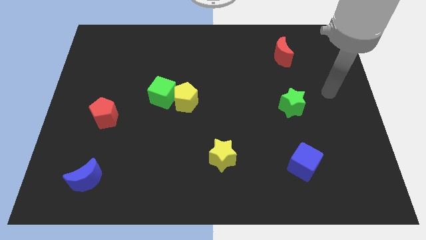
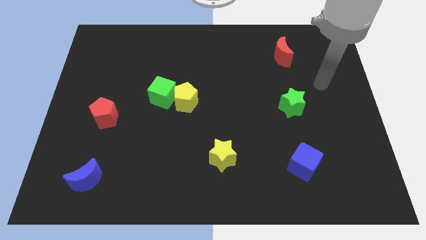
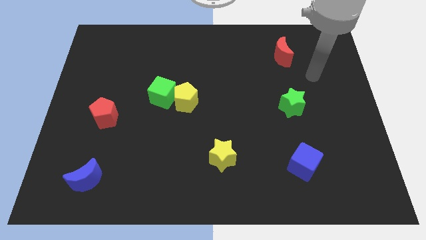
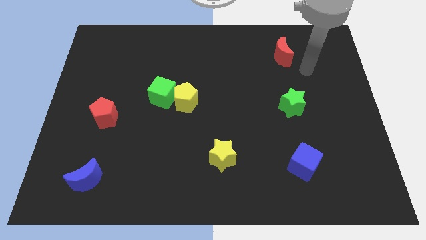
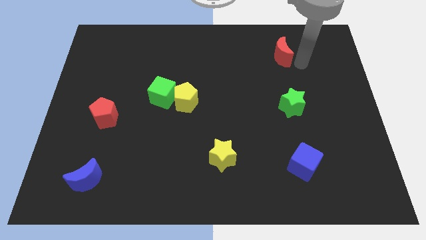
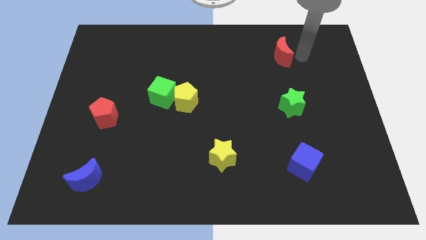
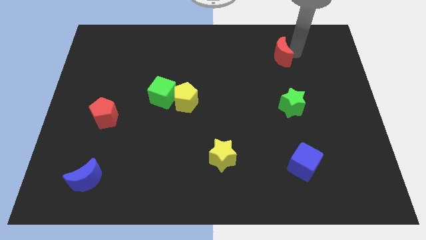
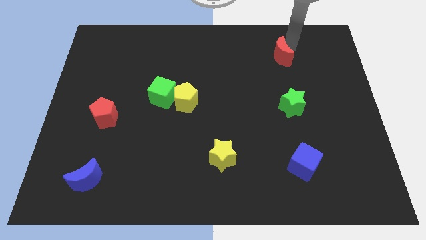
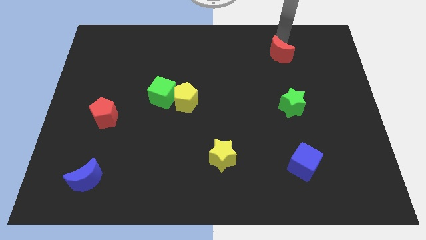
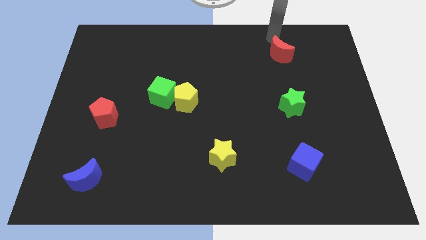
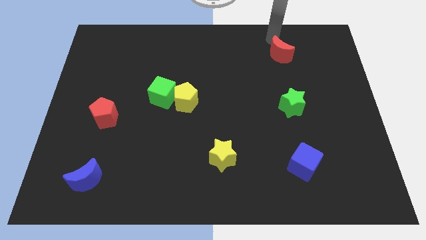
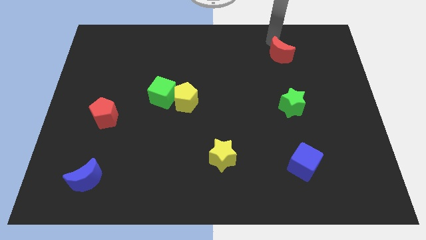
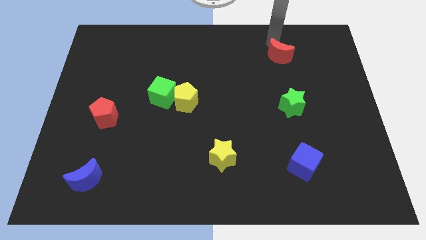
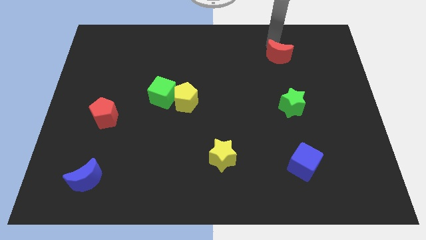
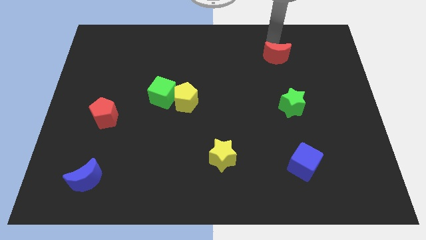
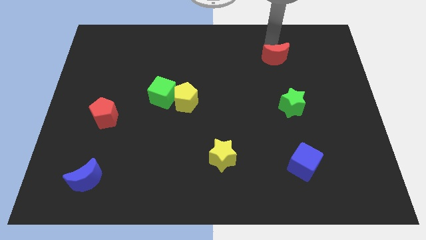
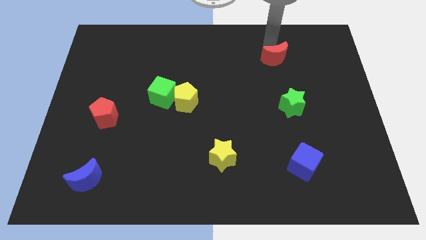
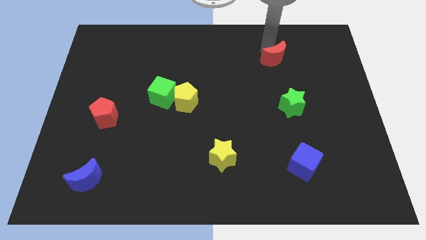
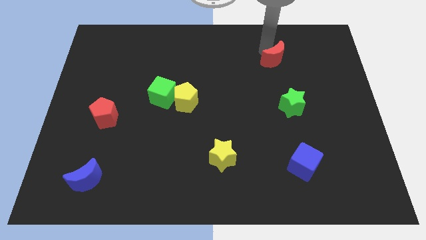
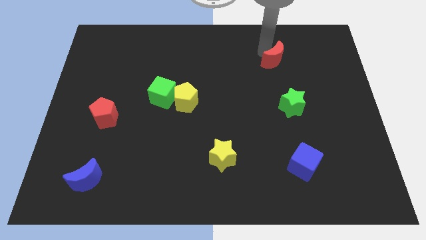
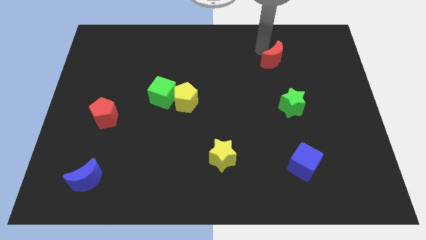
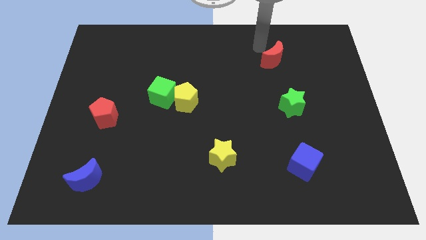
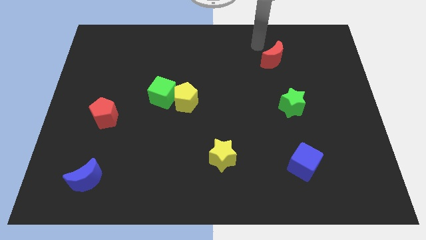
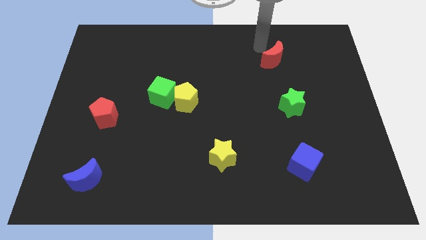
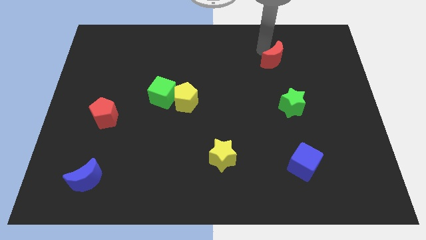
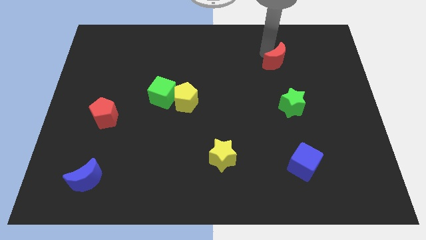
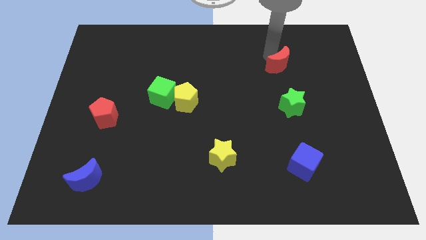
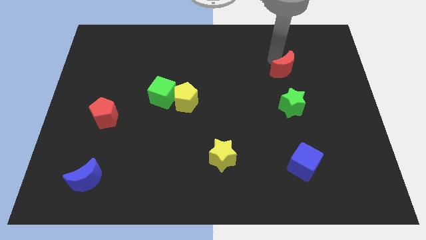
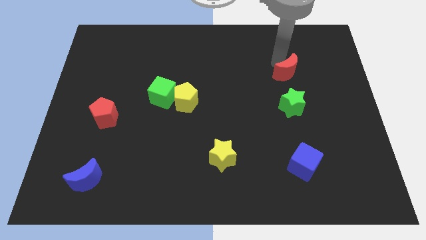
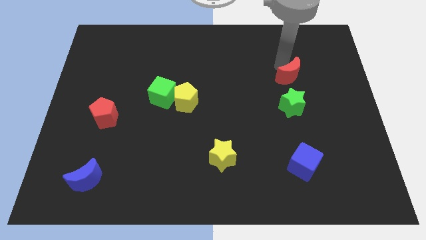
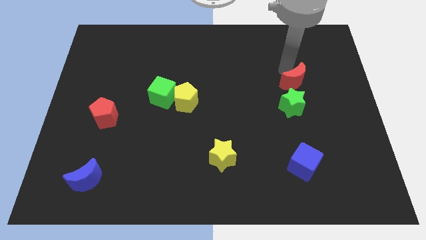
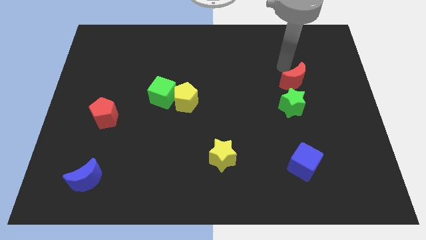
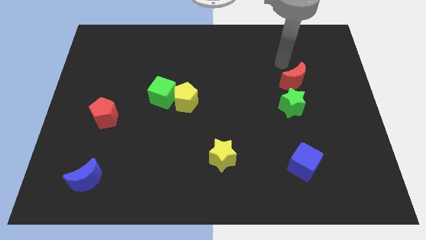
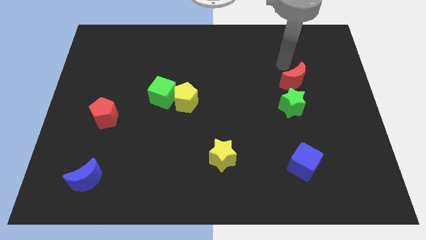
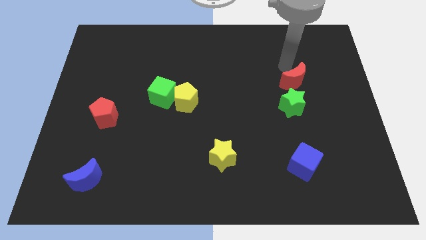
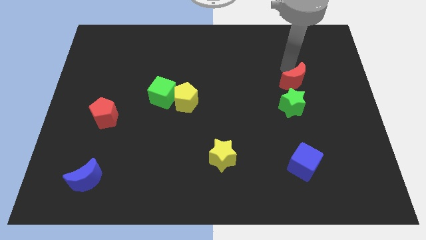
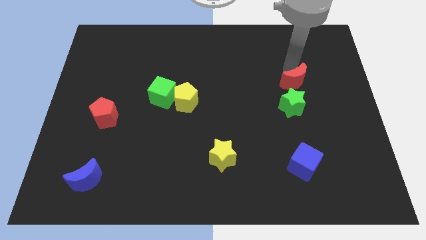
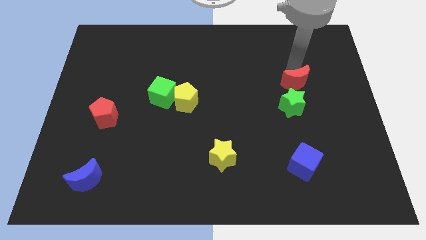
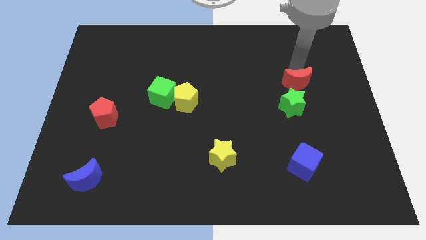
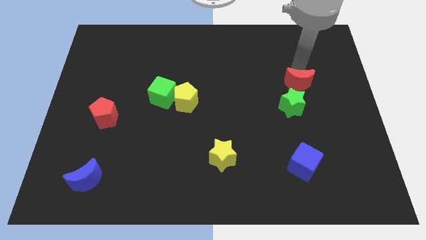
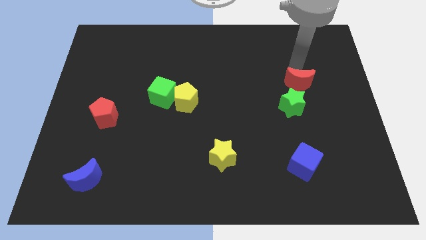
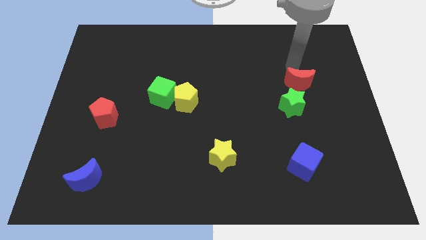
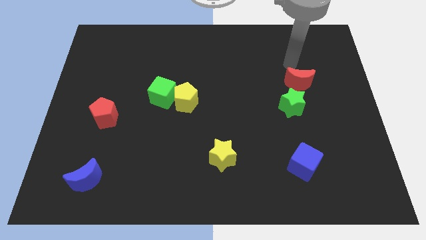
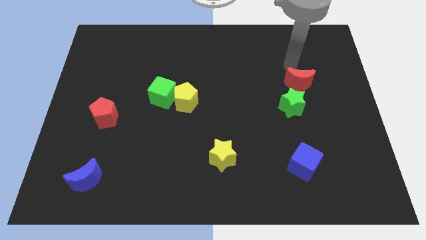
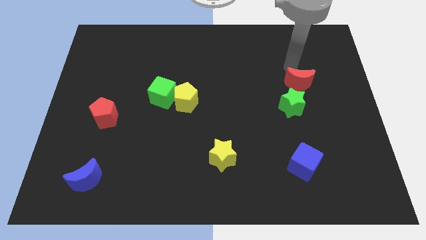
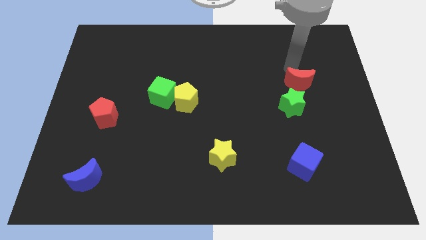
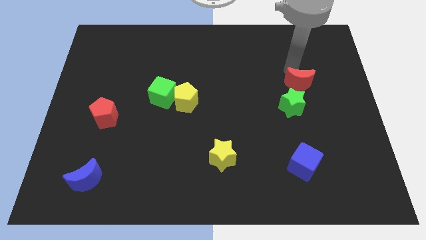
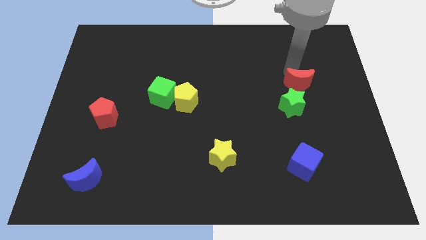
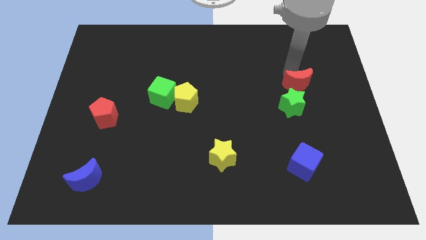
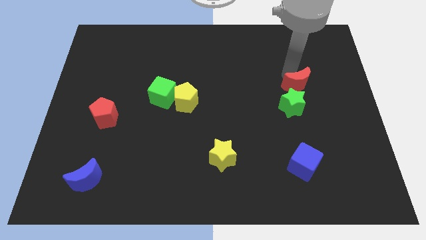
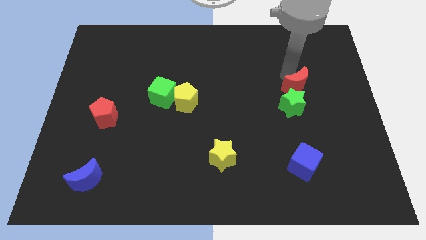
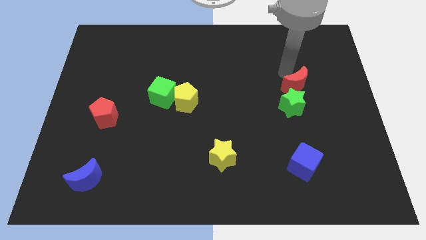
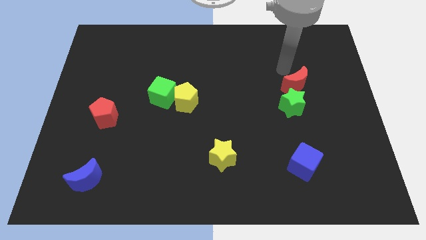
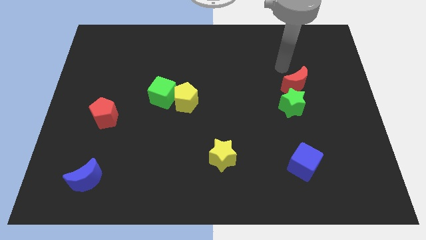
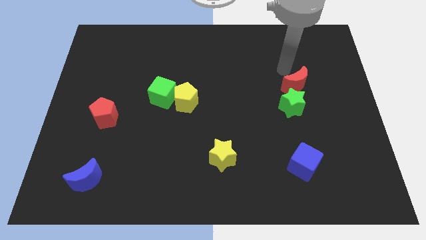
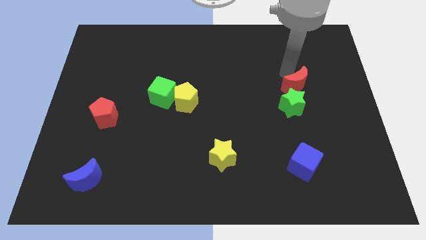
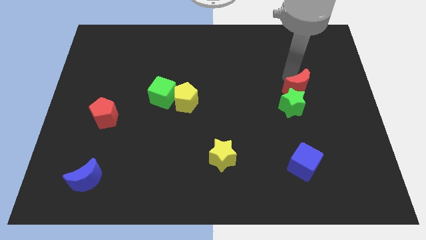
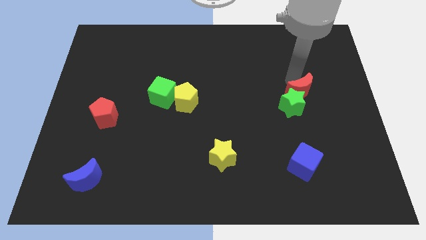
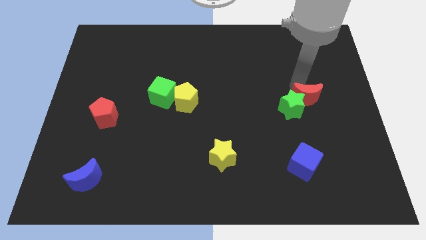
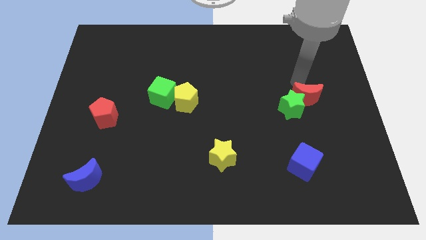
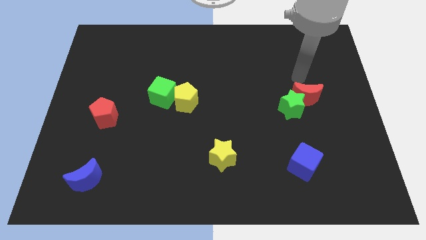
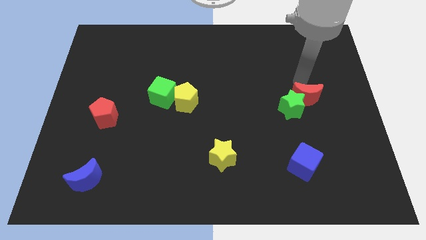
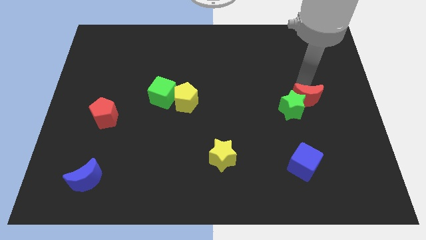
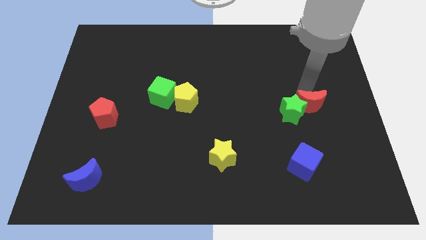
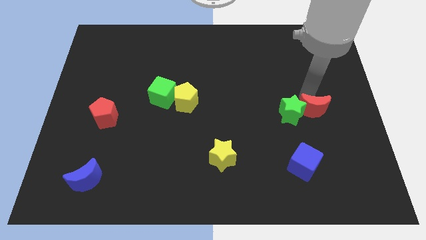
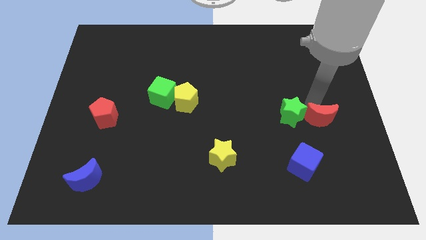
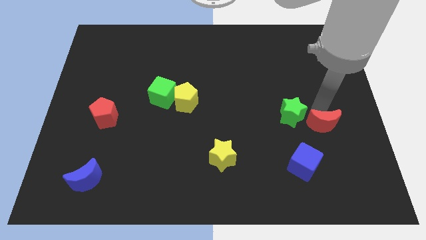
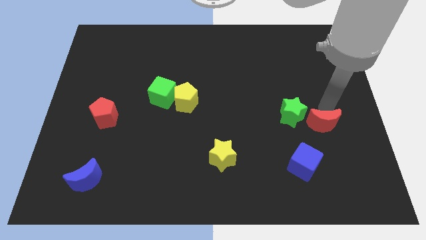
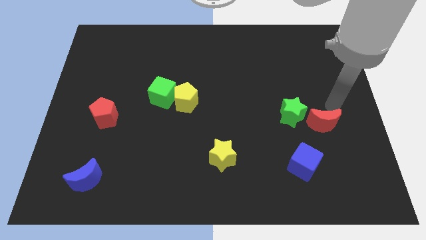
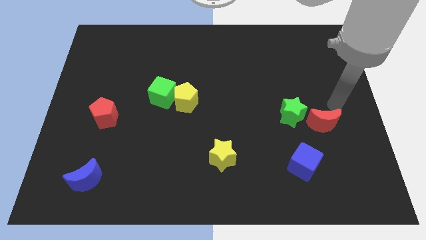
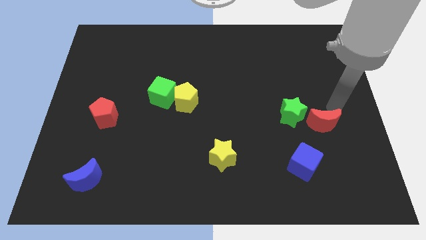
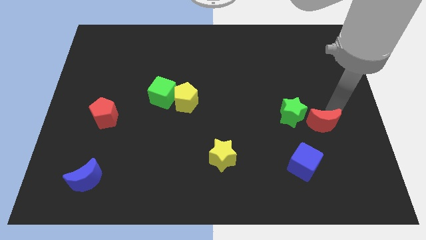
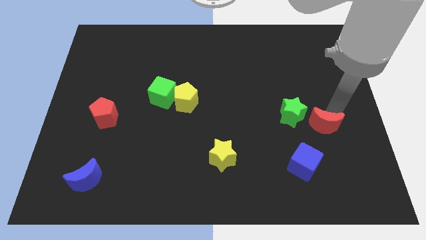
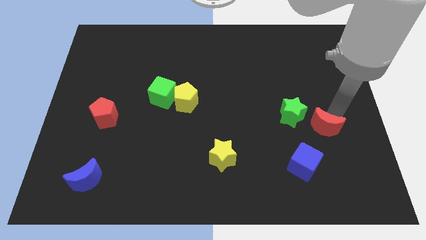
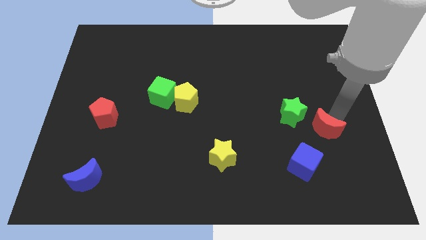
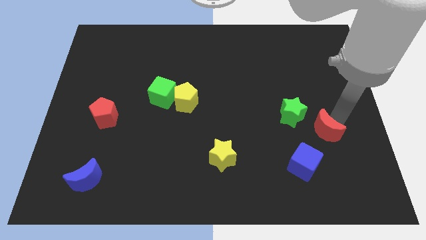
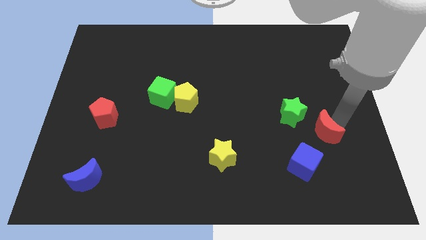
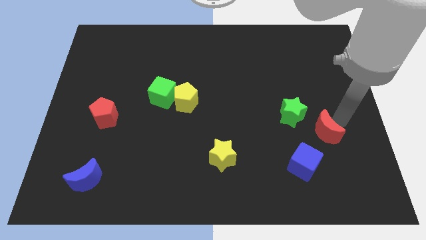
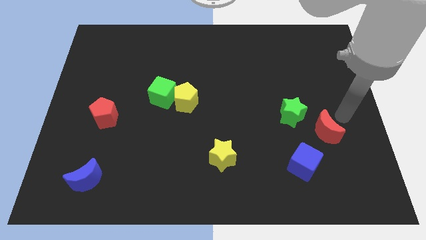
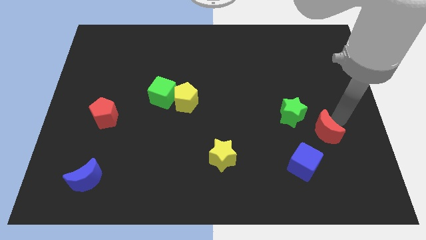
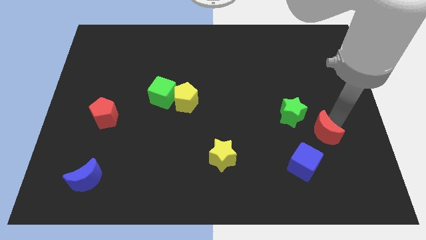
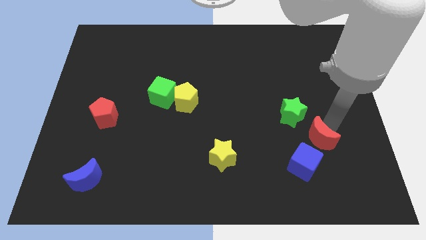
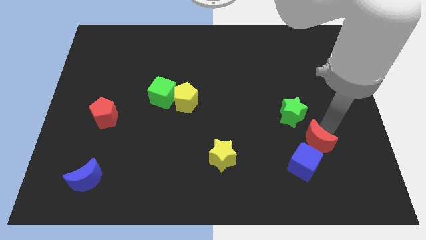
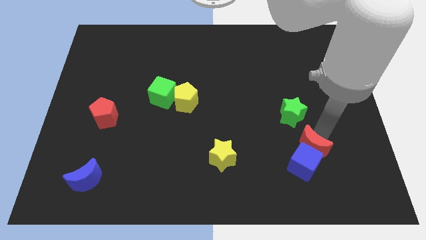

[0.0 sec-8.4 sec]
move the red moon next to the blue cube
